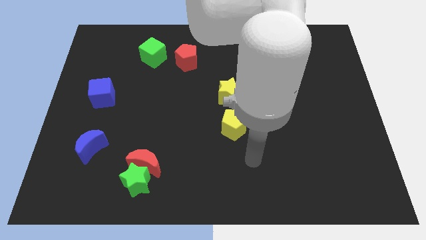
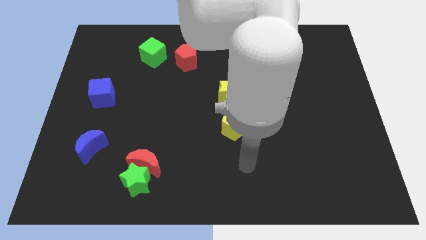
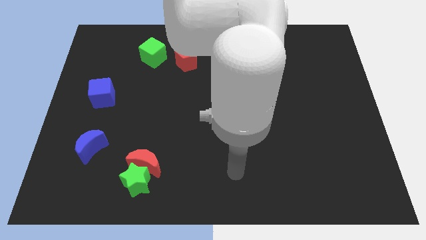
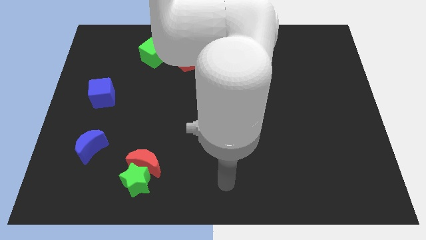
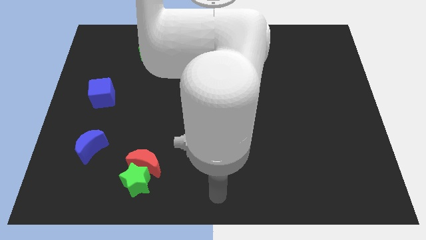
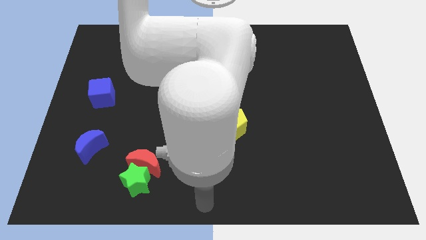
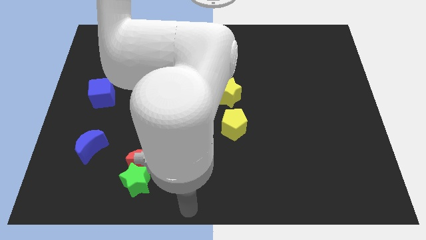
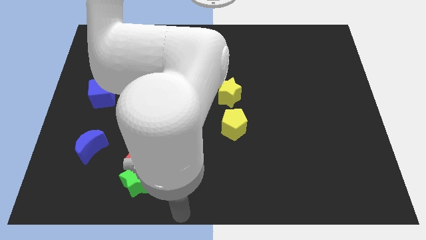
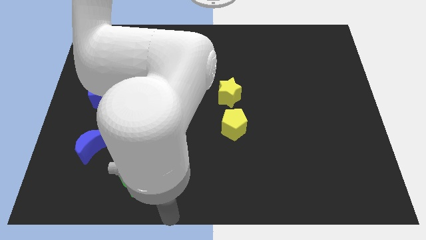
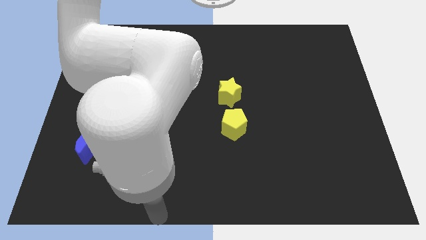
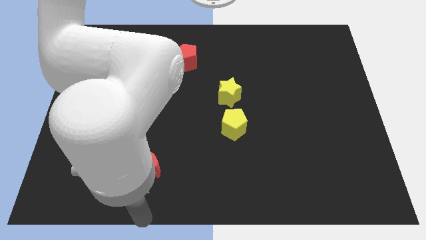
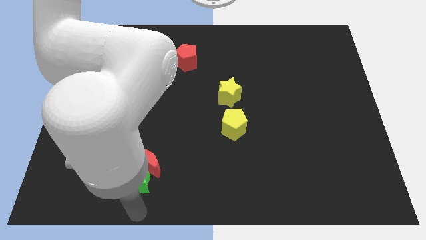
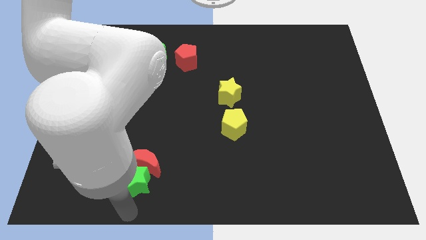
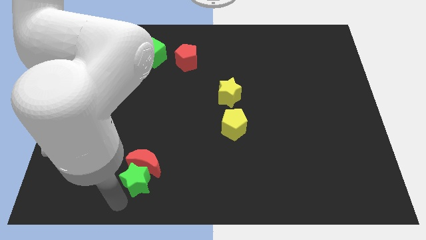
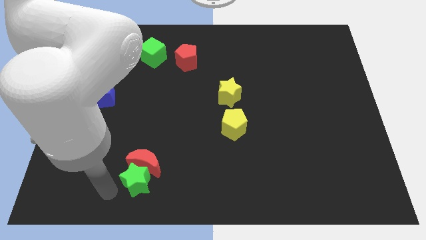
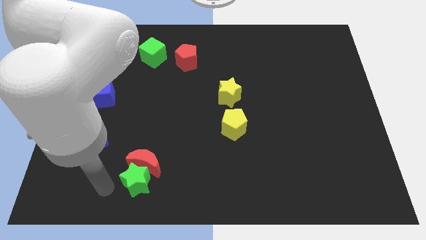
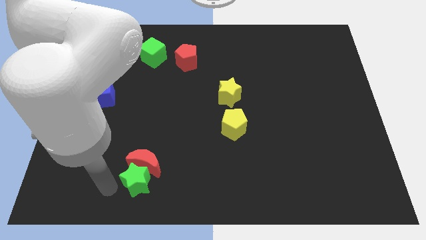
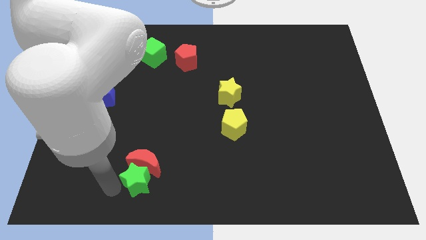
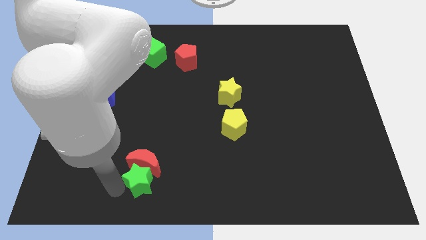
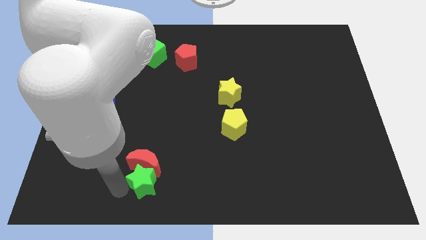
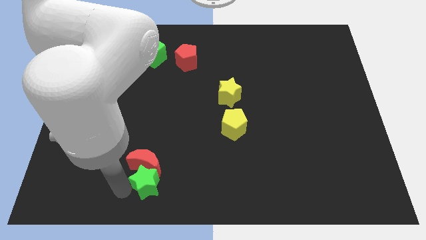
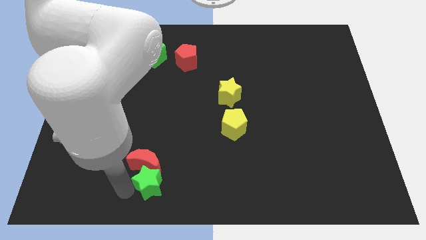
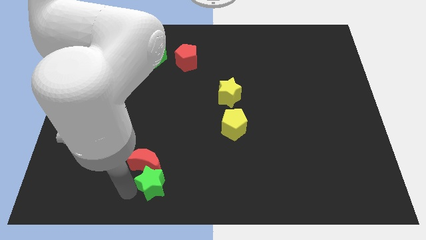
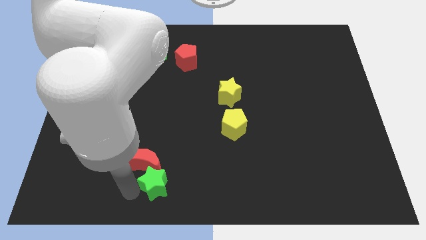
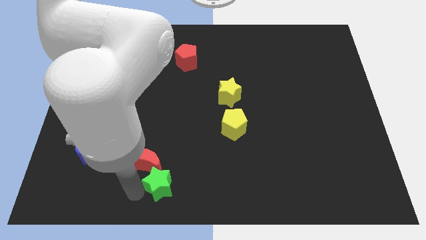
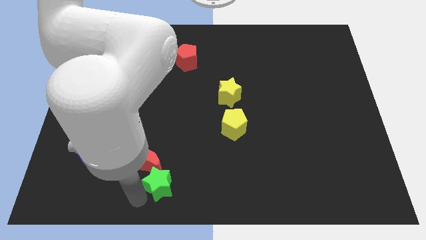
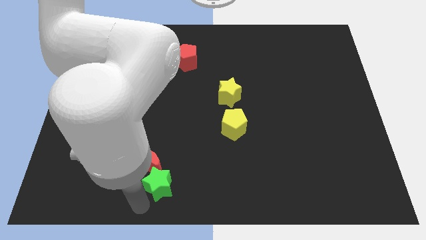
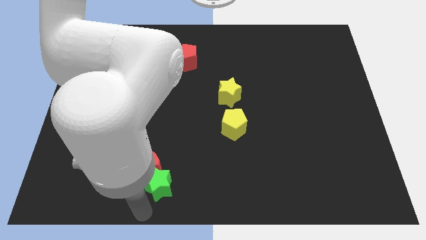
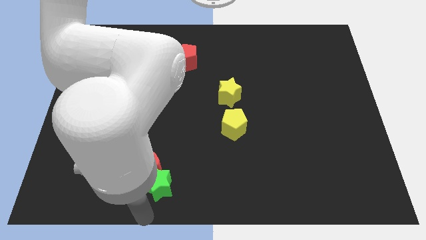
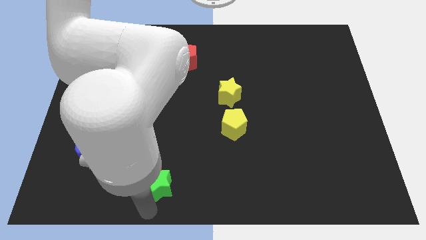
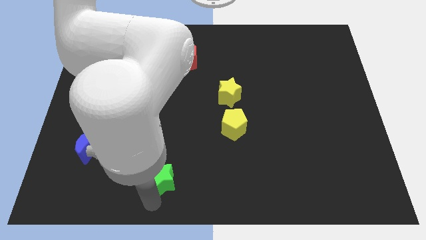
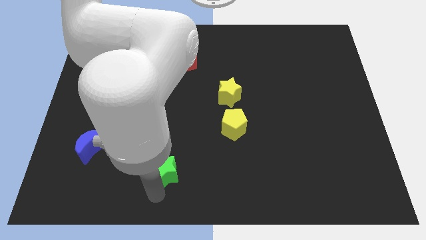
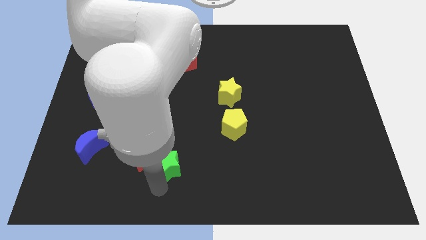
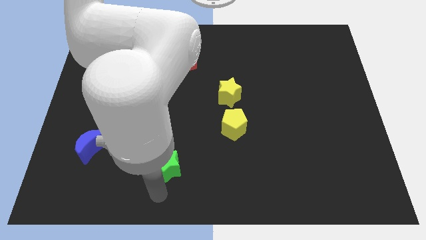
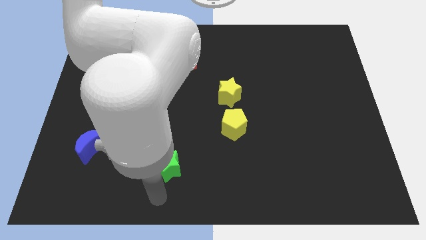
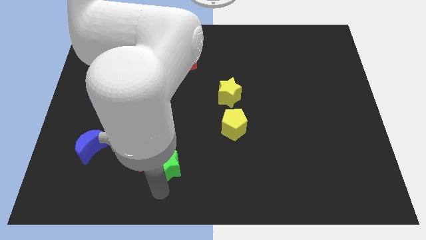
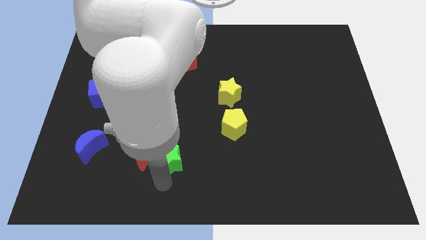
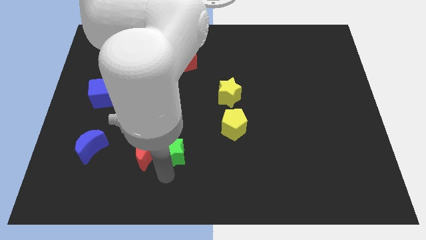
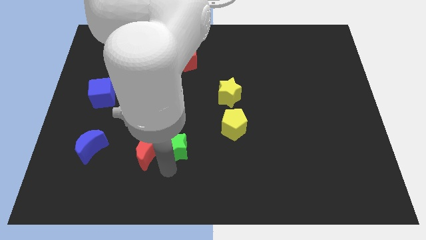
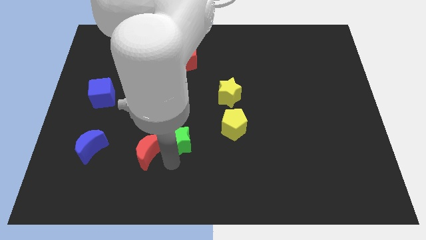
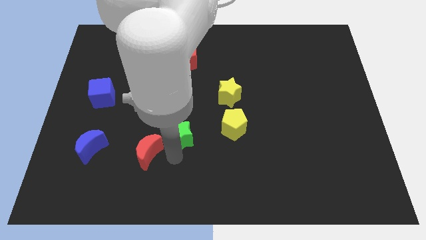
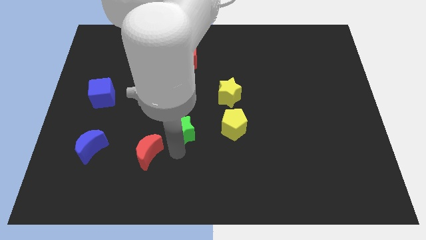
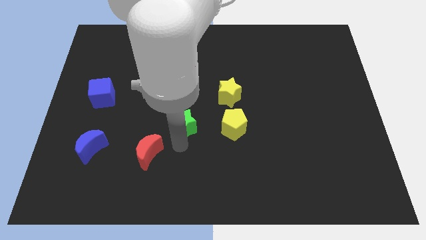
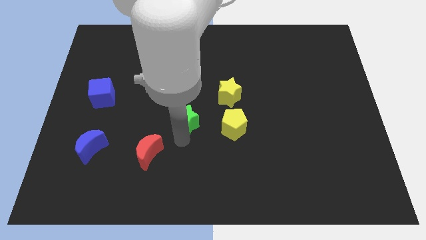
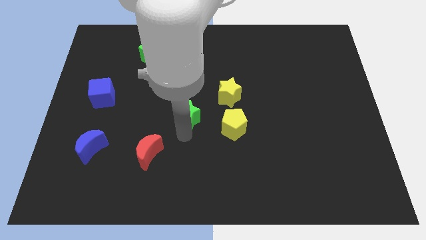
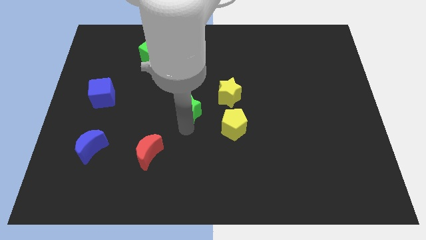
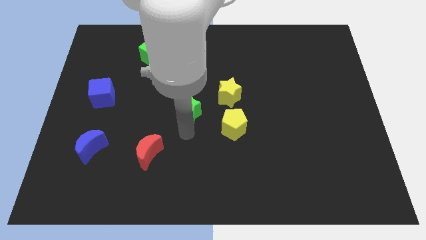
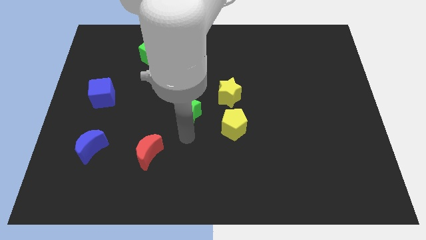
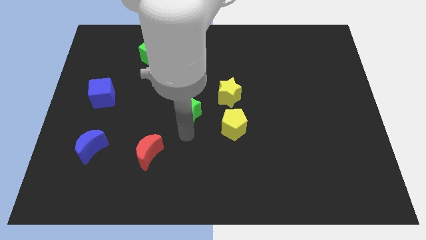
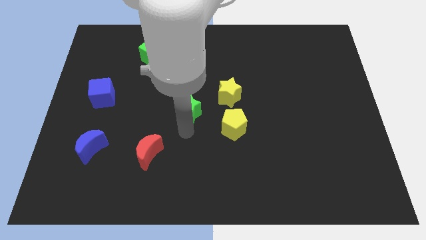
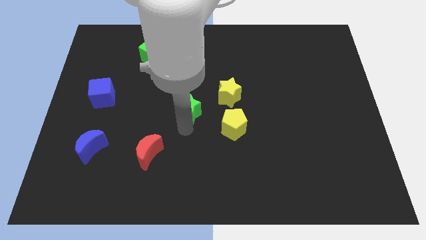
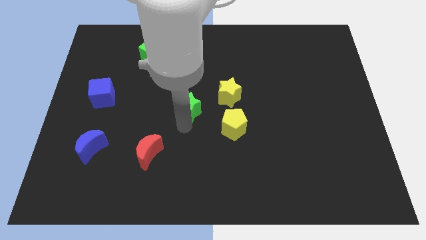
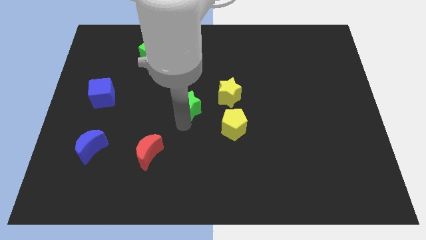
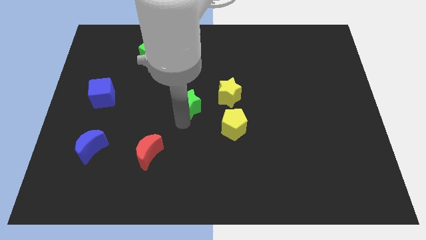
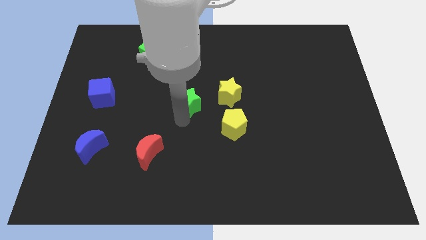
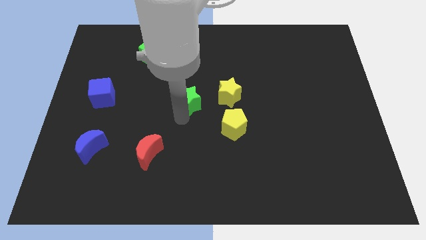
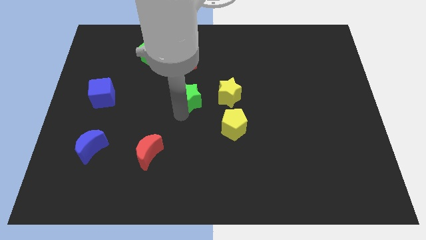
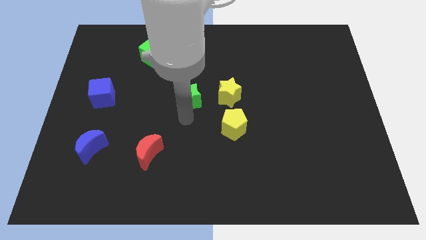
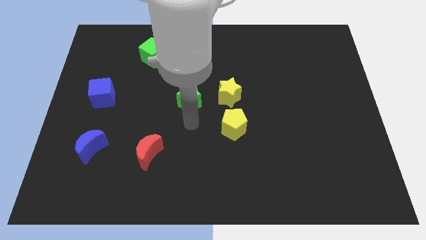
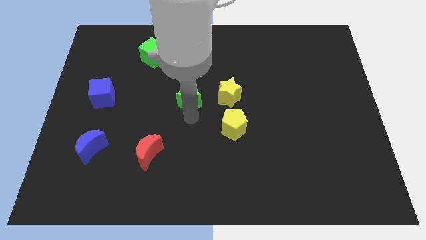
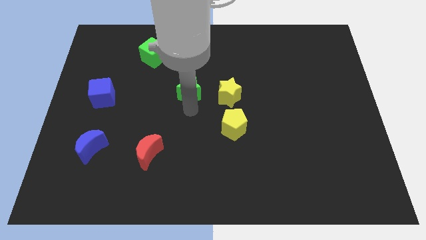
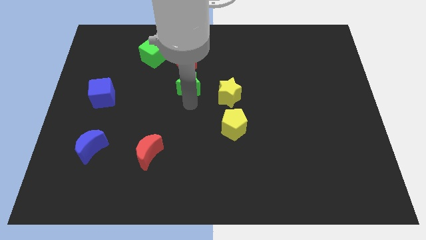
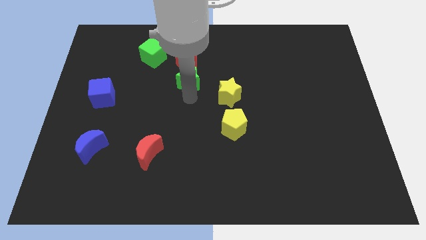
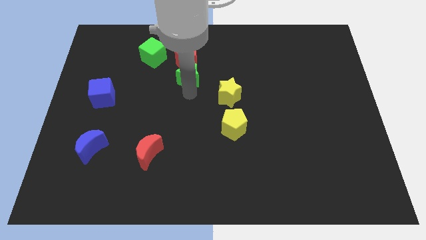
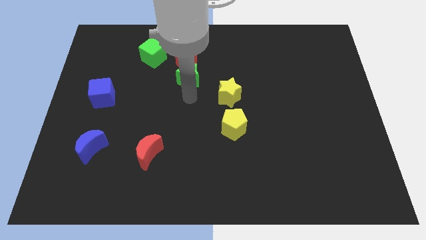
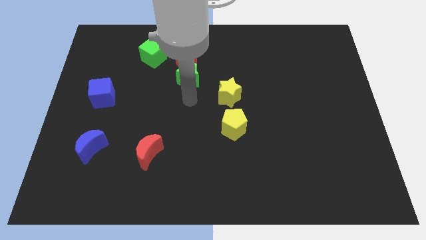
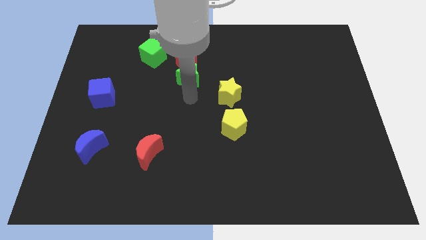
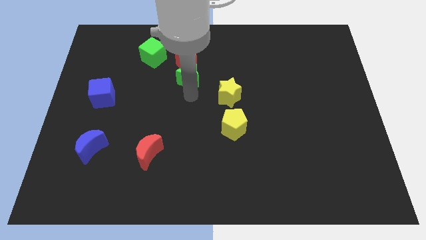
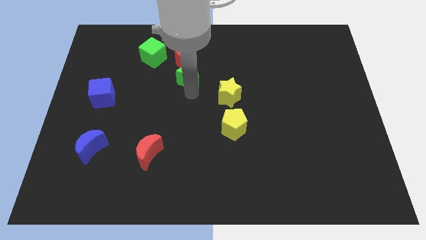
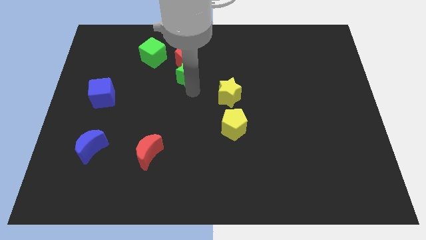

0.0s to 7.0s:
put the green star next to the red pentagon
